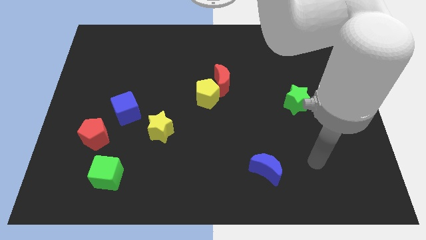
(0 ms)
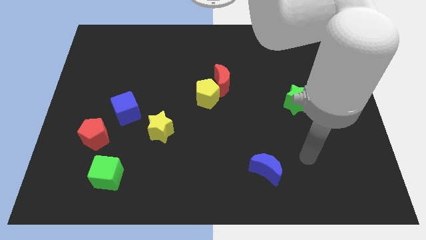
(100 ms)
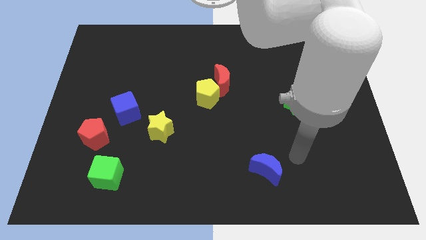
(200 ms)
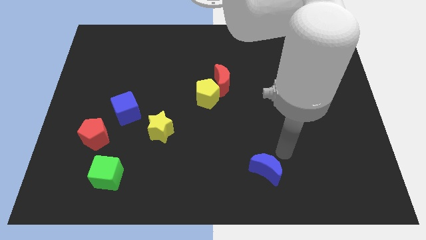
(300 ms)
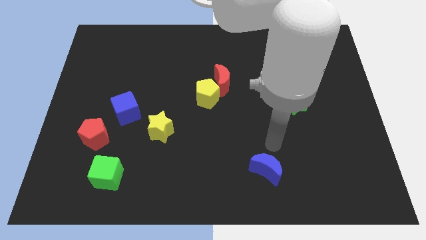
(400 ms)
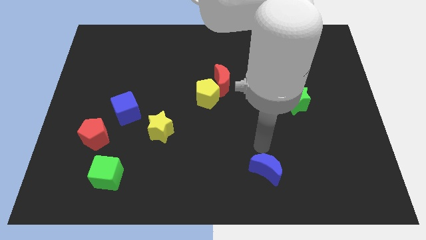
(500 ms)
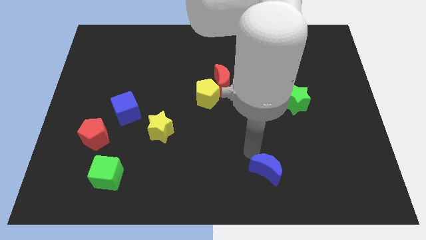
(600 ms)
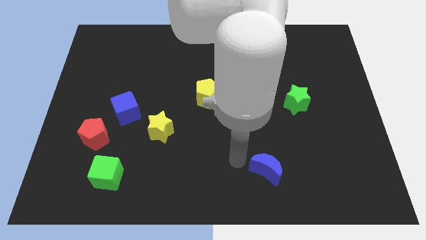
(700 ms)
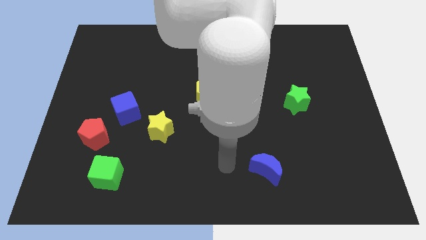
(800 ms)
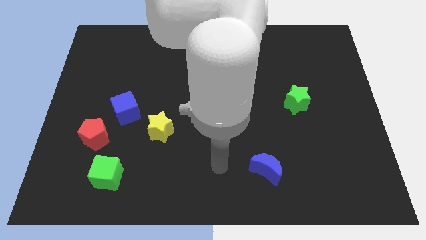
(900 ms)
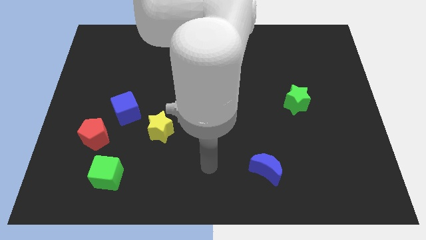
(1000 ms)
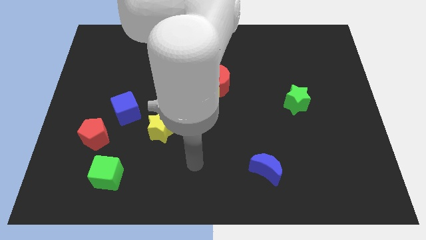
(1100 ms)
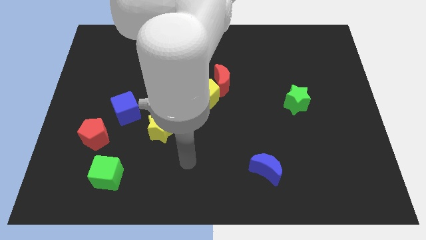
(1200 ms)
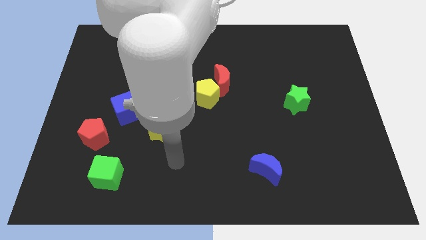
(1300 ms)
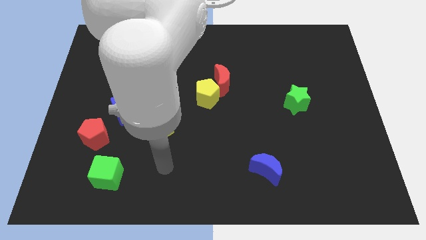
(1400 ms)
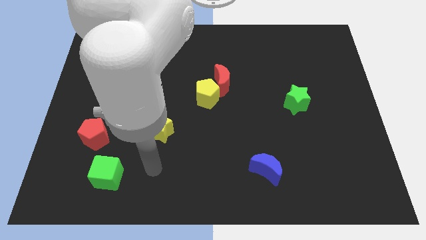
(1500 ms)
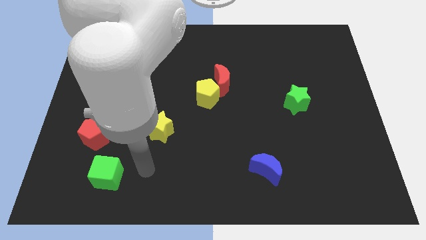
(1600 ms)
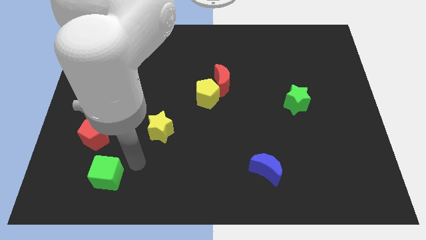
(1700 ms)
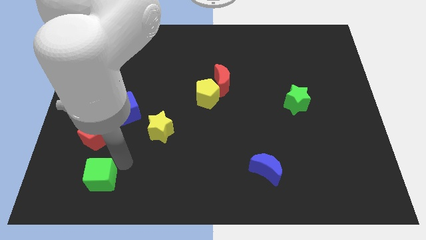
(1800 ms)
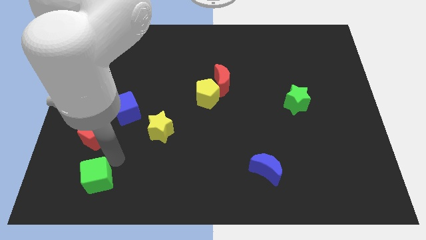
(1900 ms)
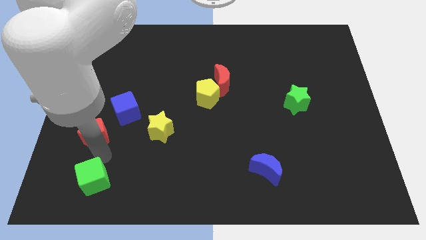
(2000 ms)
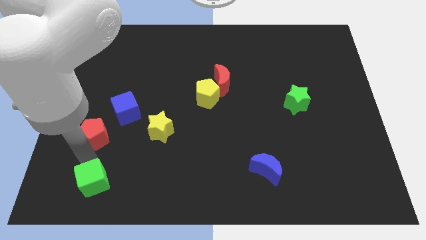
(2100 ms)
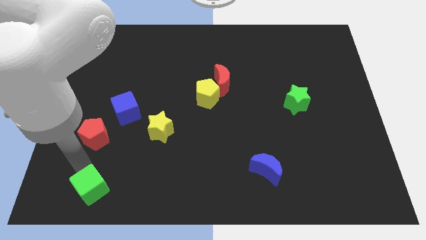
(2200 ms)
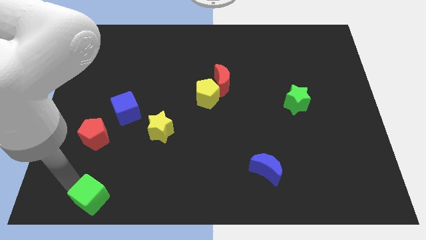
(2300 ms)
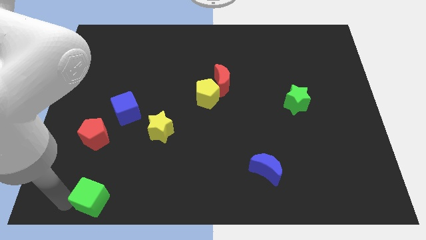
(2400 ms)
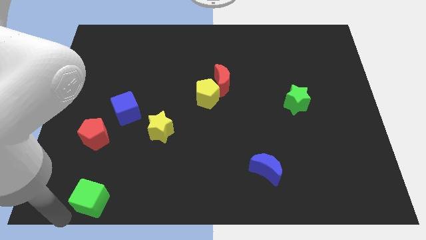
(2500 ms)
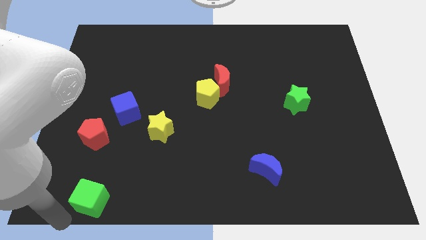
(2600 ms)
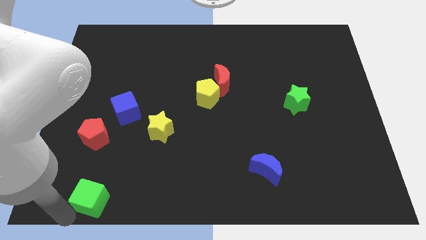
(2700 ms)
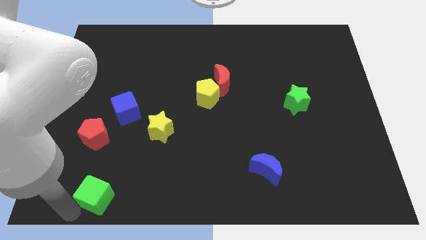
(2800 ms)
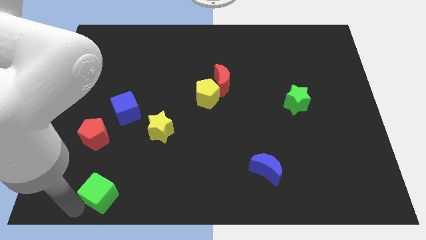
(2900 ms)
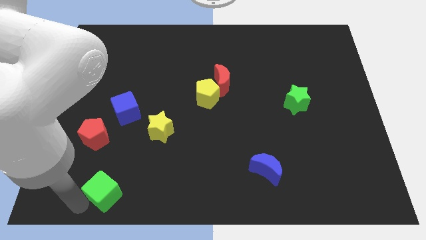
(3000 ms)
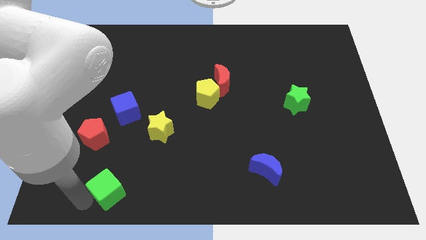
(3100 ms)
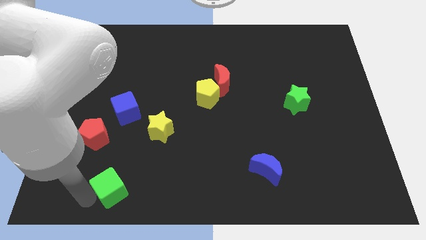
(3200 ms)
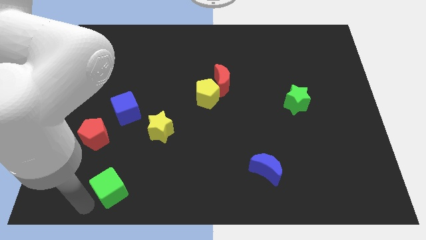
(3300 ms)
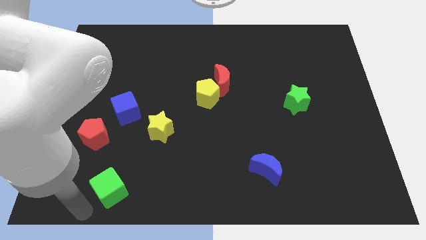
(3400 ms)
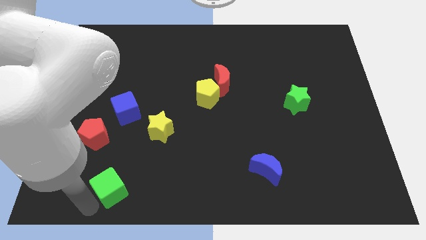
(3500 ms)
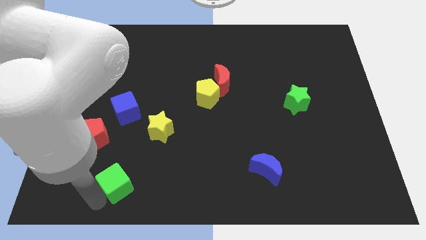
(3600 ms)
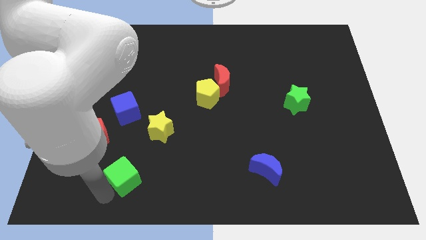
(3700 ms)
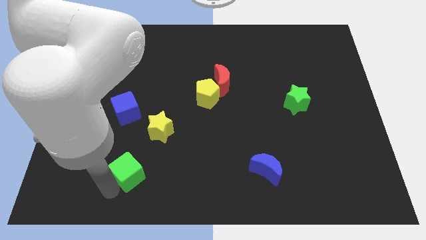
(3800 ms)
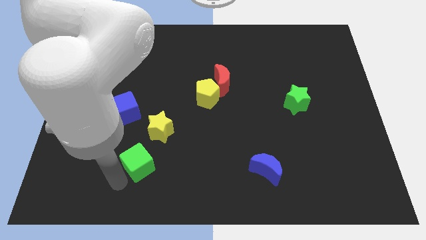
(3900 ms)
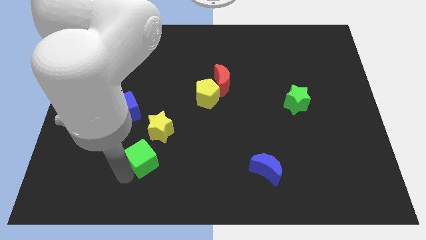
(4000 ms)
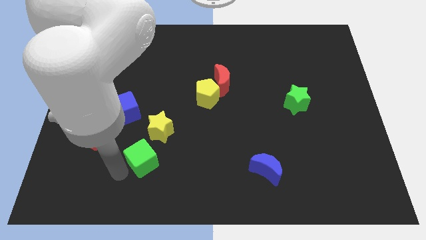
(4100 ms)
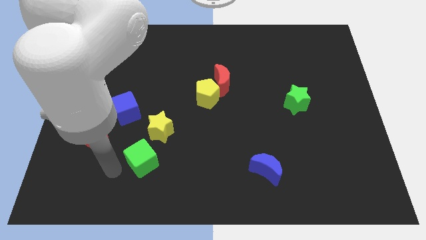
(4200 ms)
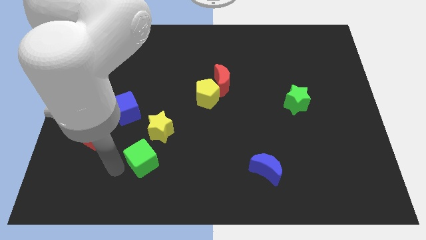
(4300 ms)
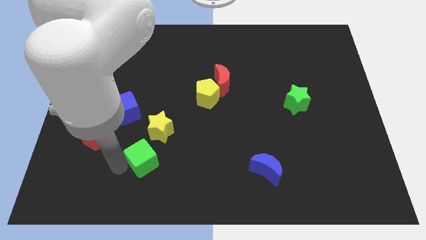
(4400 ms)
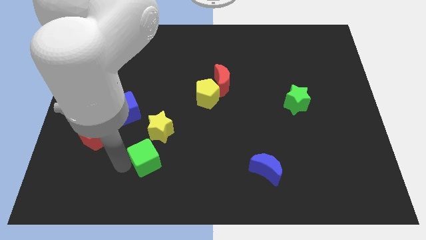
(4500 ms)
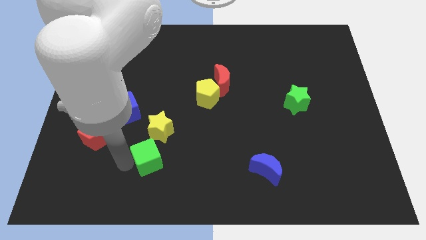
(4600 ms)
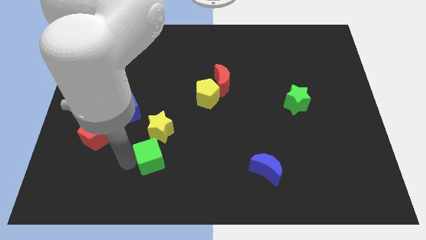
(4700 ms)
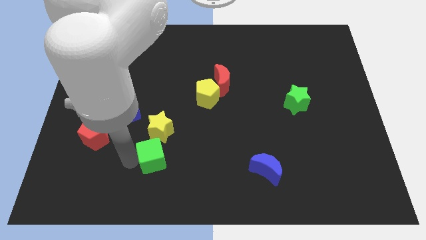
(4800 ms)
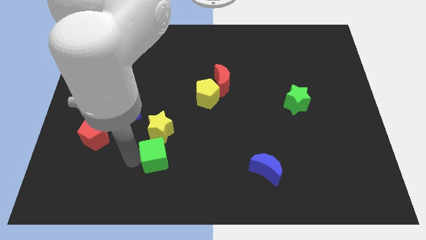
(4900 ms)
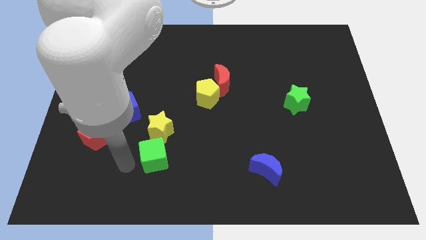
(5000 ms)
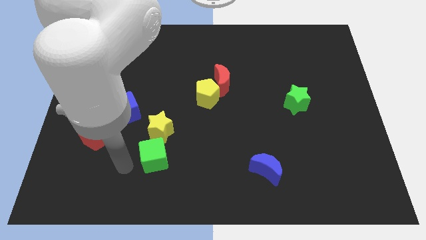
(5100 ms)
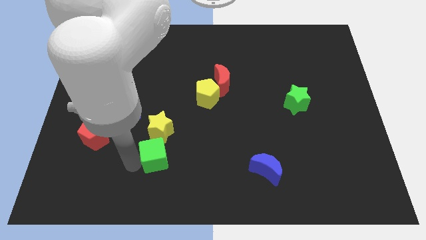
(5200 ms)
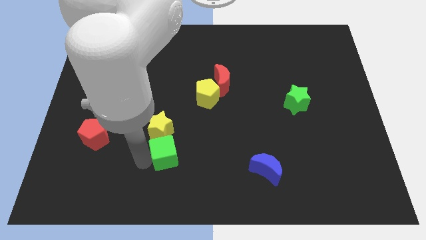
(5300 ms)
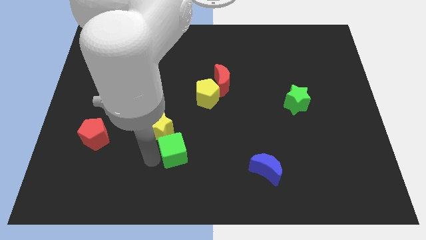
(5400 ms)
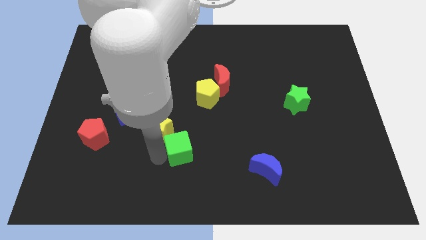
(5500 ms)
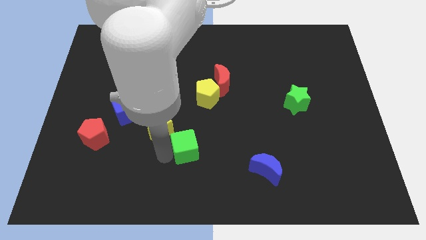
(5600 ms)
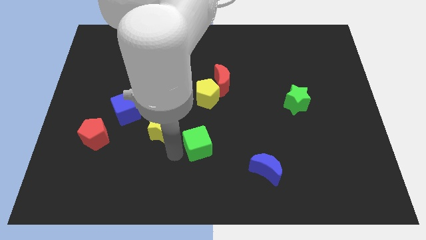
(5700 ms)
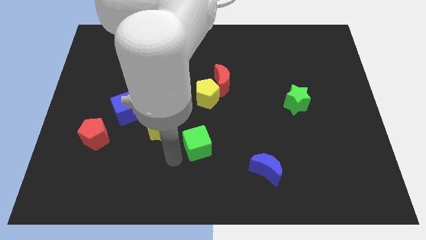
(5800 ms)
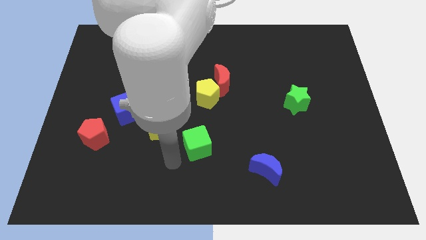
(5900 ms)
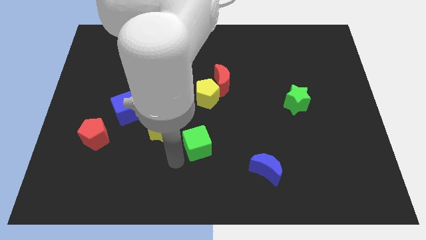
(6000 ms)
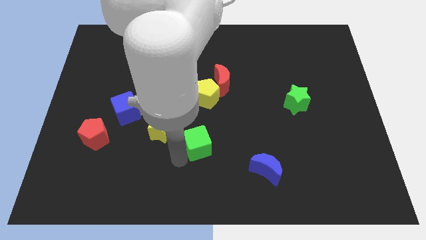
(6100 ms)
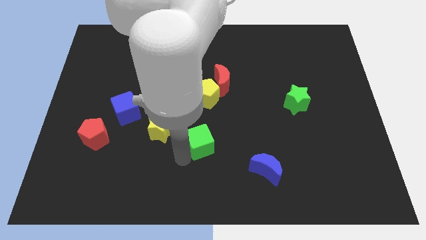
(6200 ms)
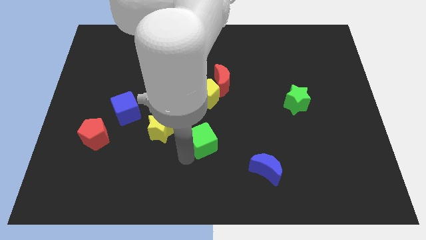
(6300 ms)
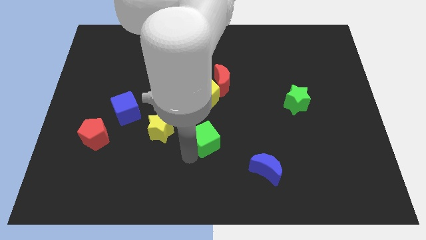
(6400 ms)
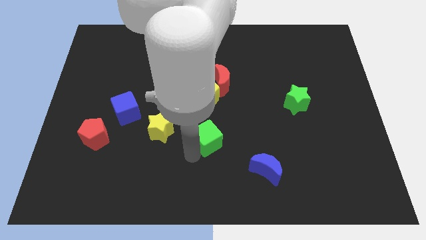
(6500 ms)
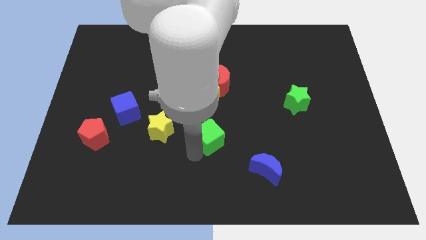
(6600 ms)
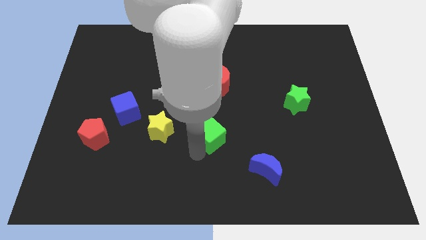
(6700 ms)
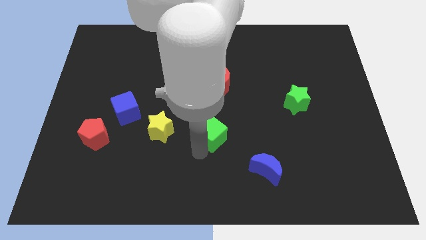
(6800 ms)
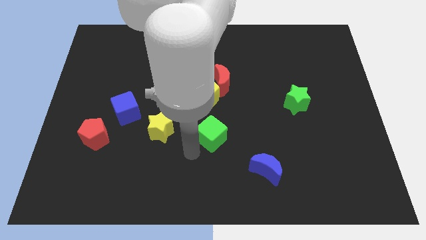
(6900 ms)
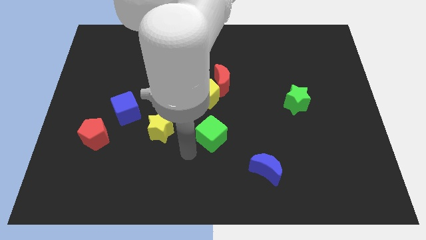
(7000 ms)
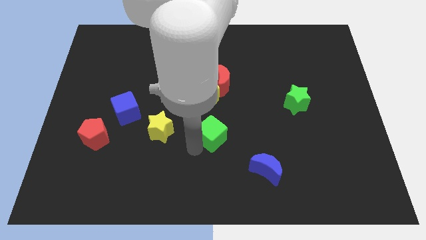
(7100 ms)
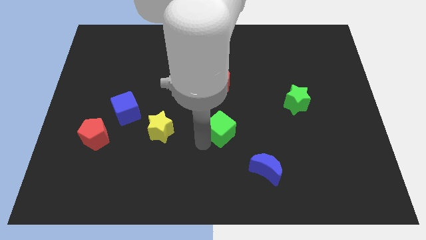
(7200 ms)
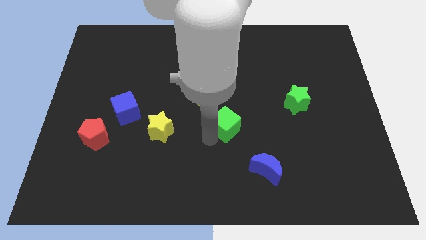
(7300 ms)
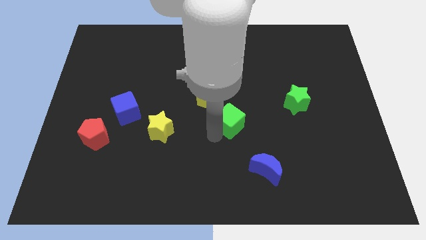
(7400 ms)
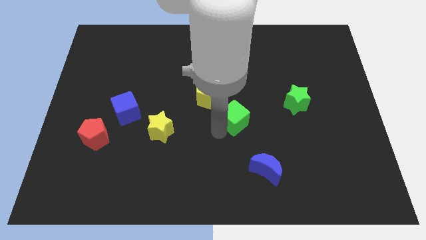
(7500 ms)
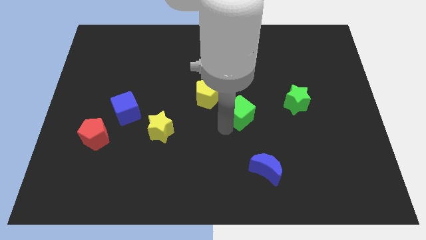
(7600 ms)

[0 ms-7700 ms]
slide the green cube left of the green star
